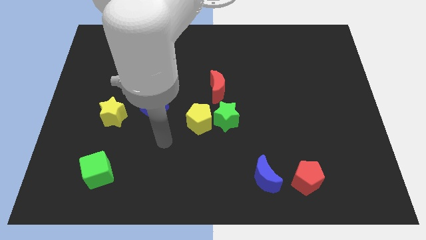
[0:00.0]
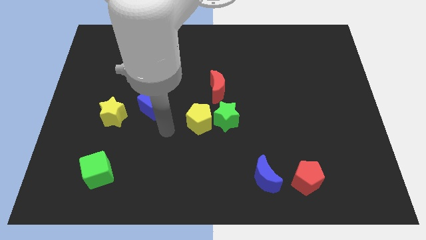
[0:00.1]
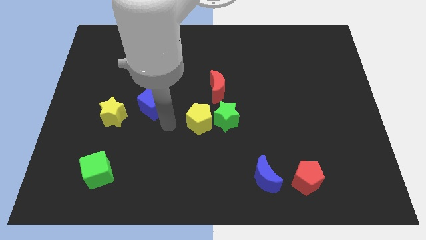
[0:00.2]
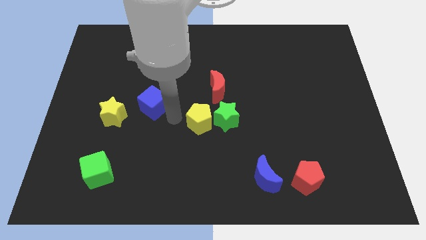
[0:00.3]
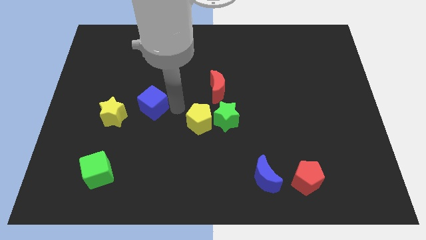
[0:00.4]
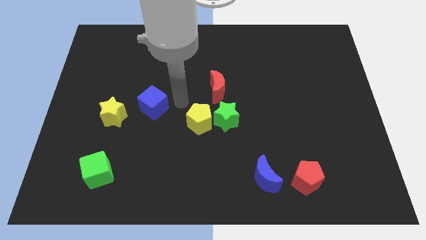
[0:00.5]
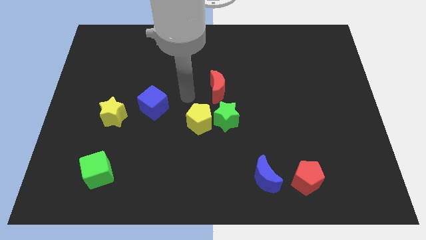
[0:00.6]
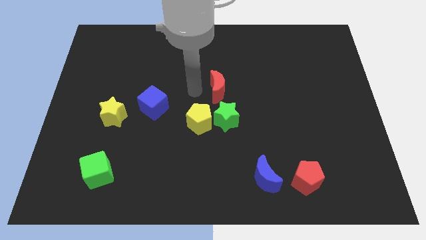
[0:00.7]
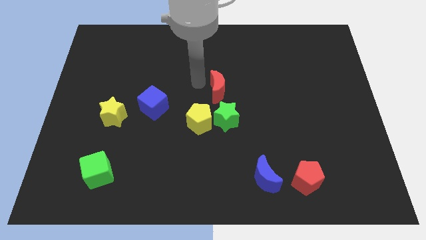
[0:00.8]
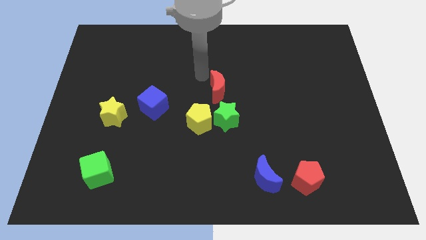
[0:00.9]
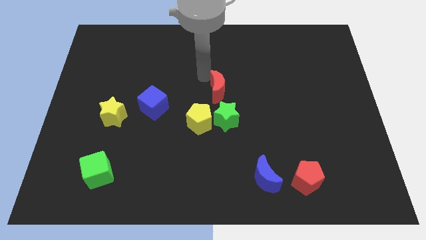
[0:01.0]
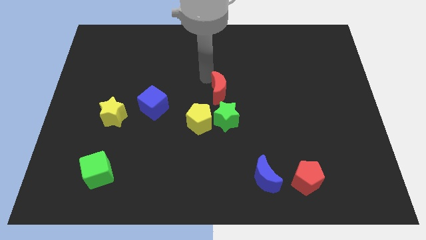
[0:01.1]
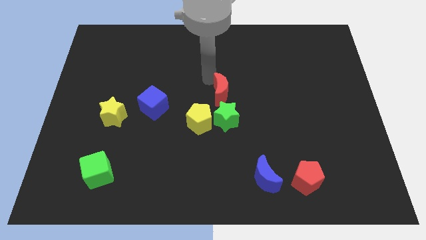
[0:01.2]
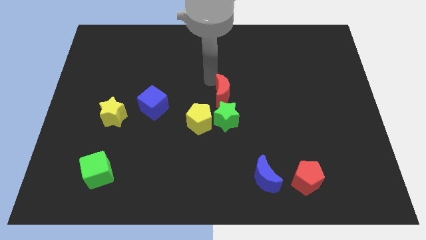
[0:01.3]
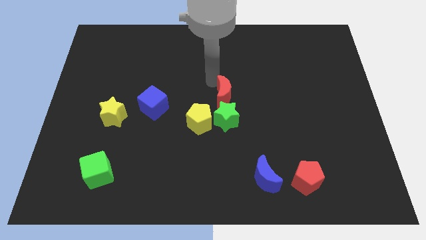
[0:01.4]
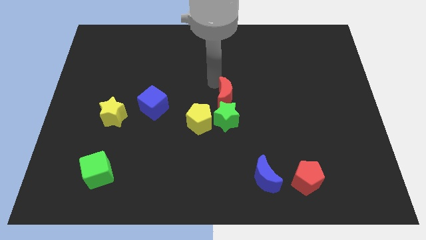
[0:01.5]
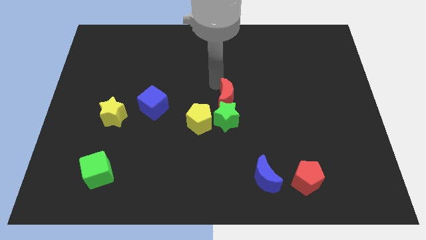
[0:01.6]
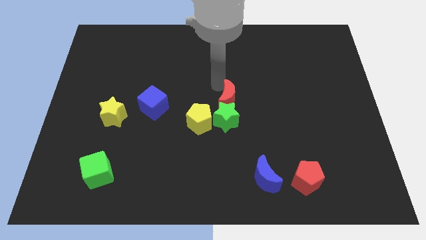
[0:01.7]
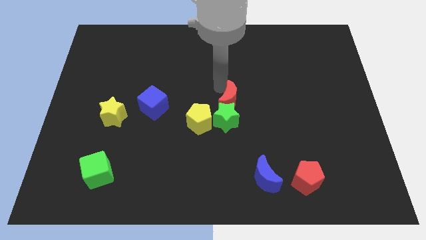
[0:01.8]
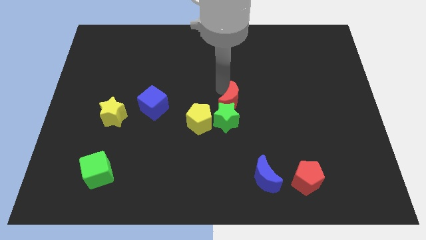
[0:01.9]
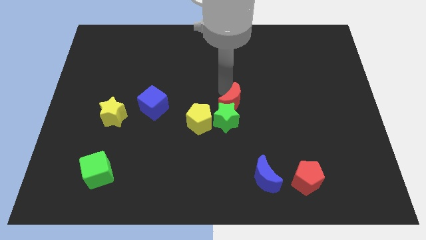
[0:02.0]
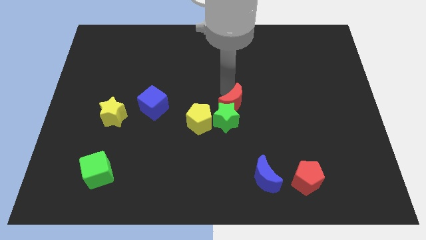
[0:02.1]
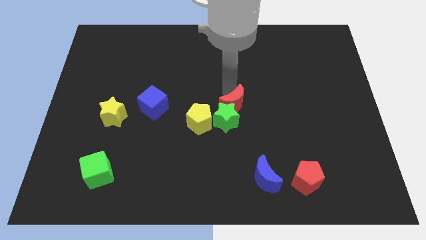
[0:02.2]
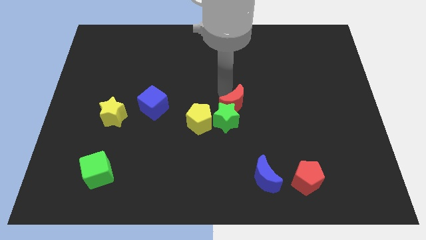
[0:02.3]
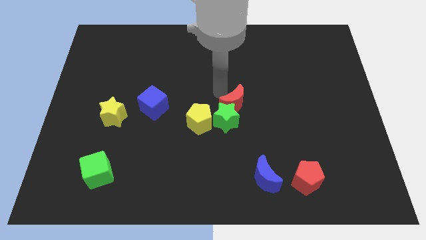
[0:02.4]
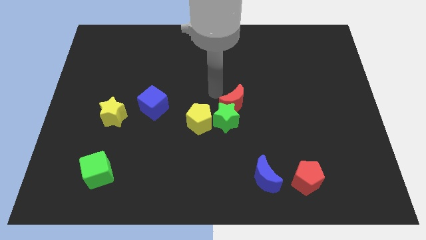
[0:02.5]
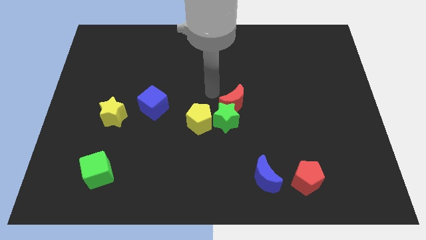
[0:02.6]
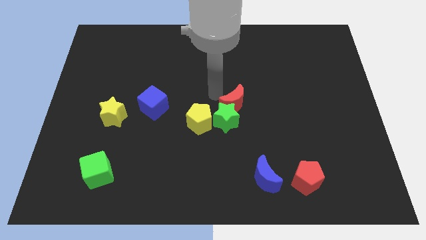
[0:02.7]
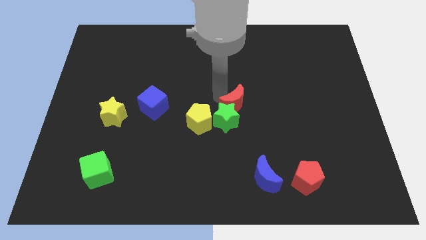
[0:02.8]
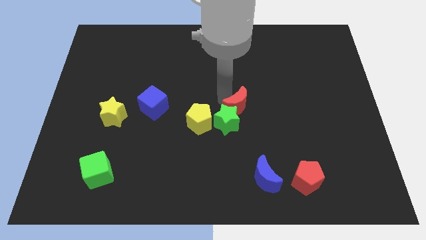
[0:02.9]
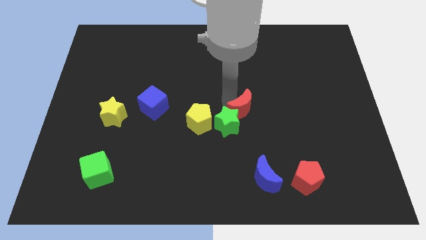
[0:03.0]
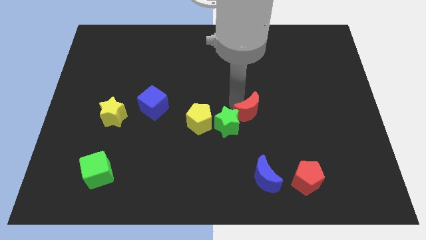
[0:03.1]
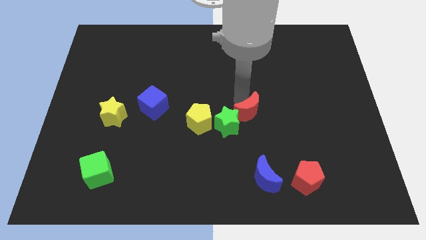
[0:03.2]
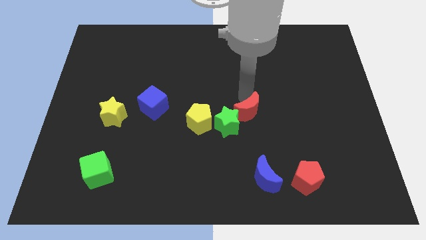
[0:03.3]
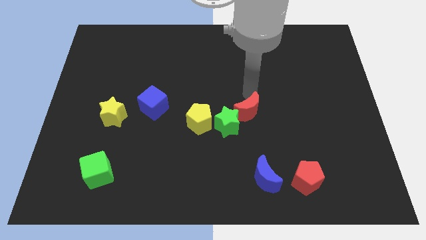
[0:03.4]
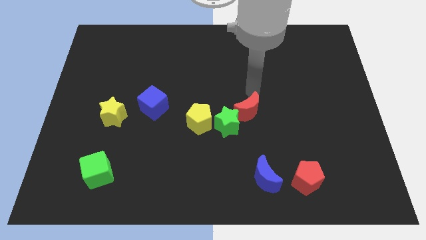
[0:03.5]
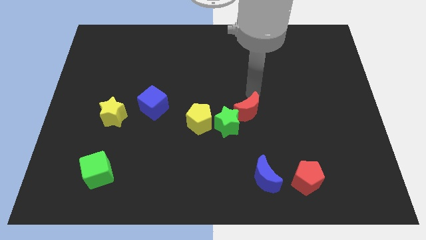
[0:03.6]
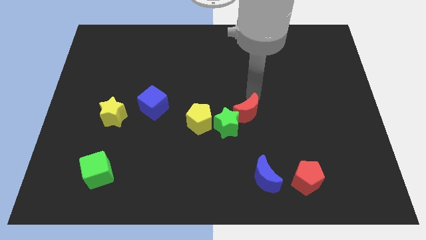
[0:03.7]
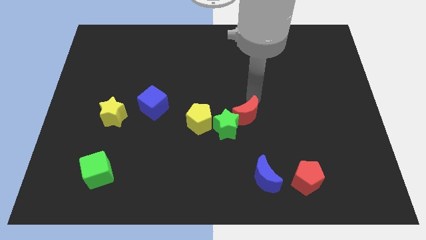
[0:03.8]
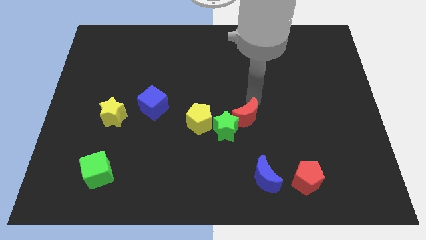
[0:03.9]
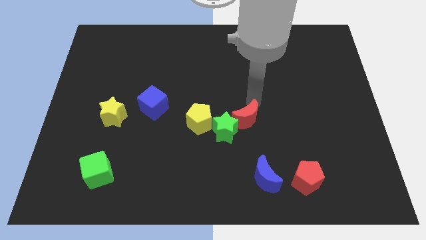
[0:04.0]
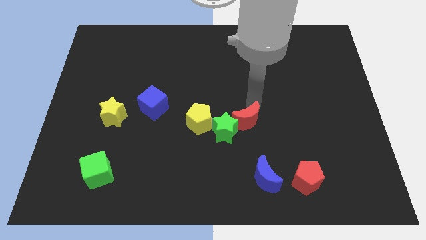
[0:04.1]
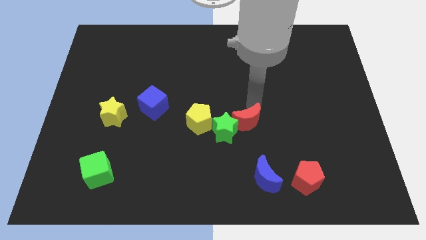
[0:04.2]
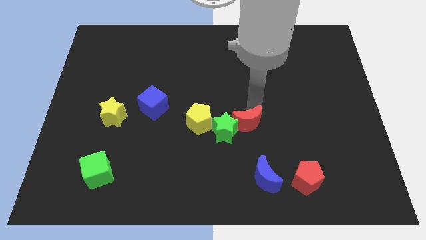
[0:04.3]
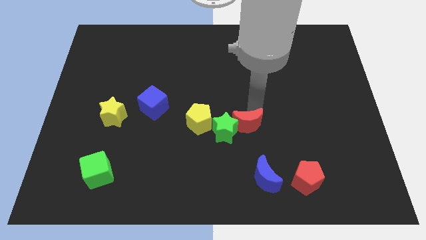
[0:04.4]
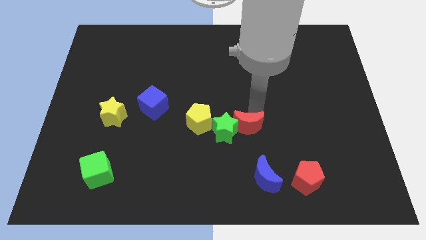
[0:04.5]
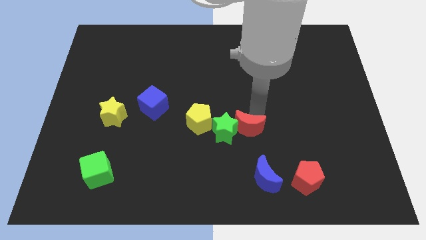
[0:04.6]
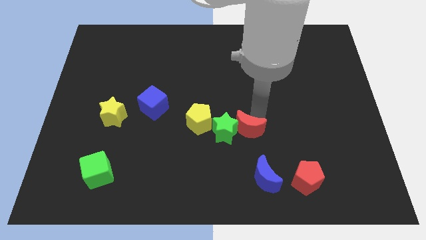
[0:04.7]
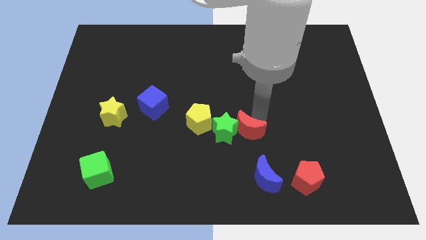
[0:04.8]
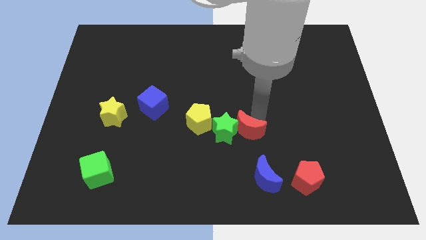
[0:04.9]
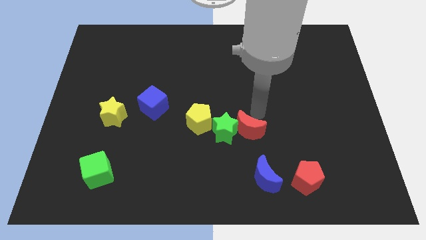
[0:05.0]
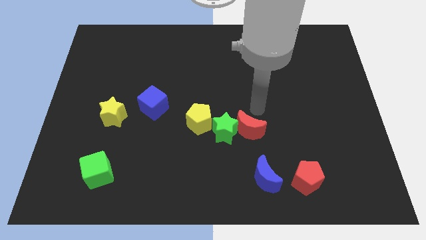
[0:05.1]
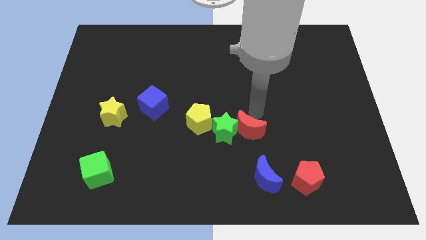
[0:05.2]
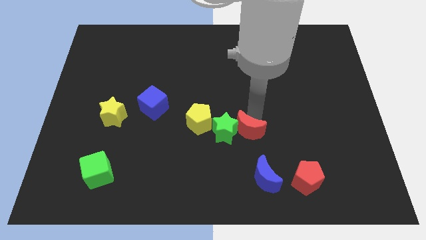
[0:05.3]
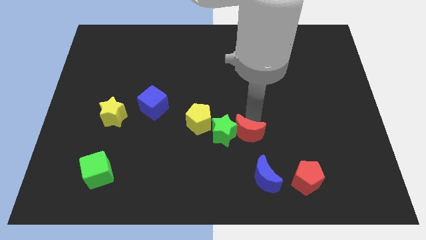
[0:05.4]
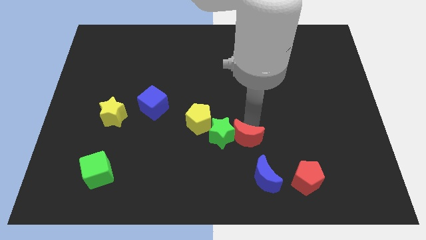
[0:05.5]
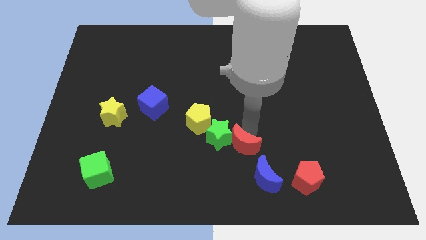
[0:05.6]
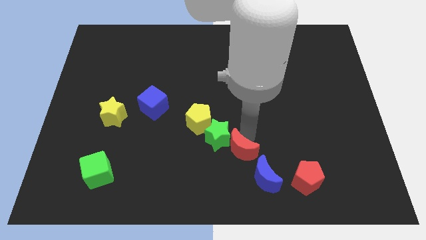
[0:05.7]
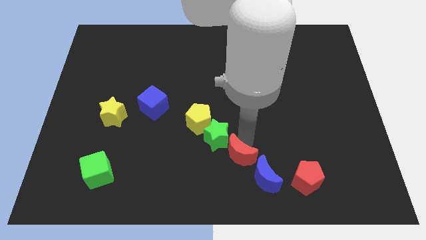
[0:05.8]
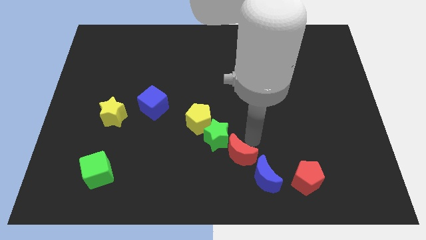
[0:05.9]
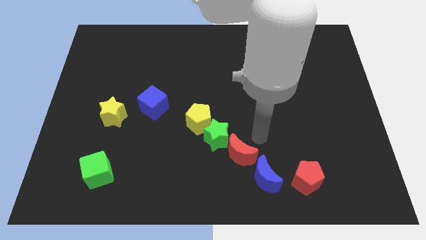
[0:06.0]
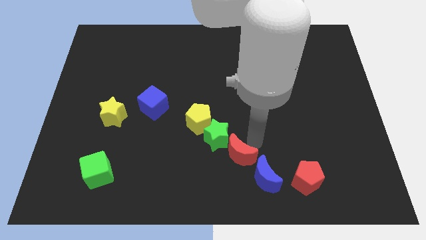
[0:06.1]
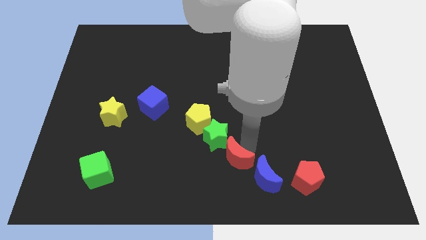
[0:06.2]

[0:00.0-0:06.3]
put the red moon to the left of the blue moon
